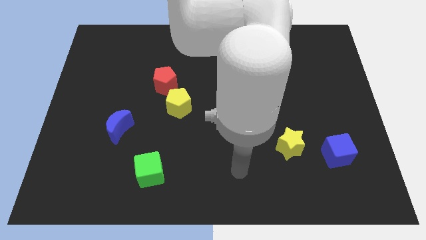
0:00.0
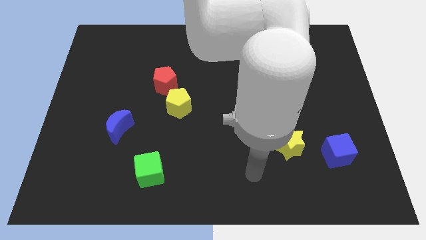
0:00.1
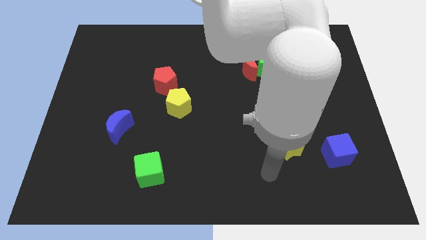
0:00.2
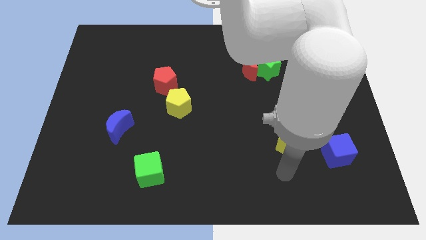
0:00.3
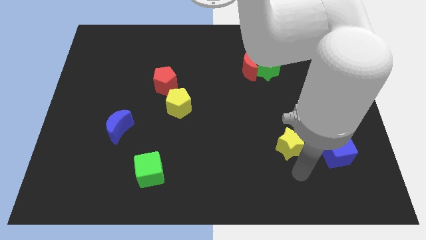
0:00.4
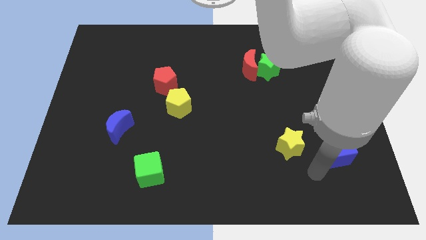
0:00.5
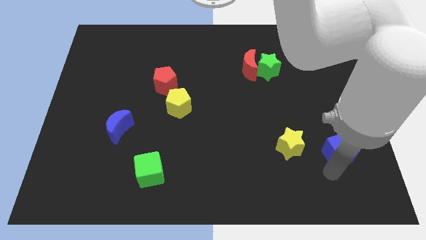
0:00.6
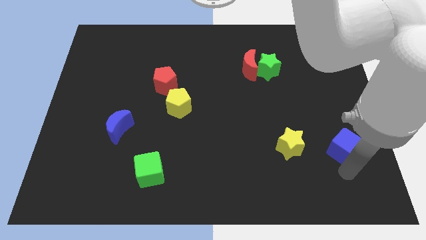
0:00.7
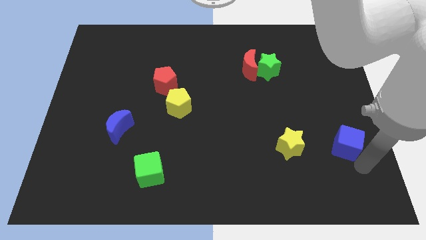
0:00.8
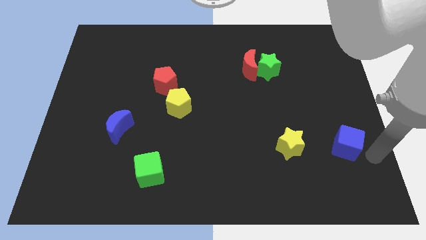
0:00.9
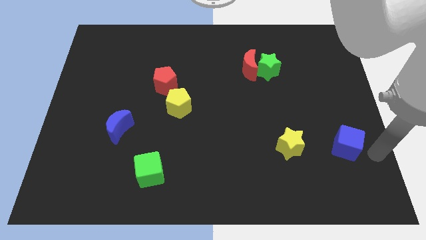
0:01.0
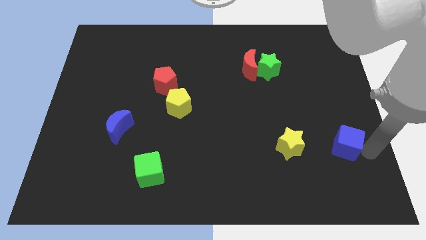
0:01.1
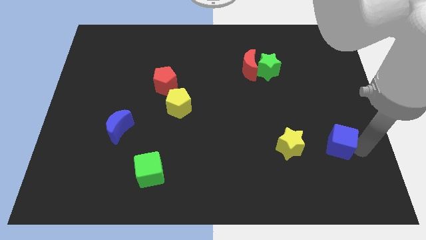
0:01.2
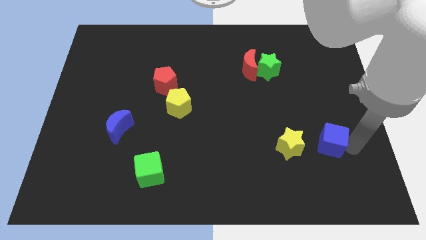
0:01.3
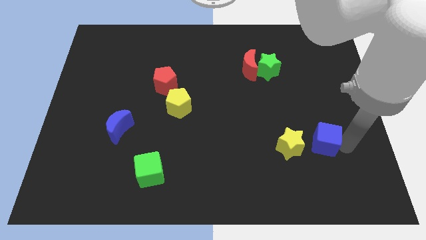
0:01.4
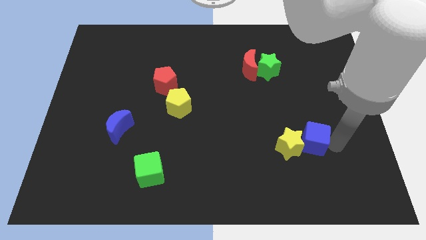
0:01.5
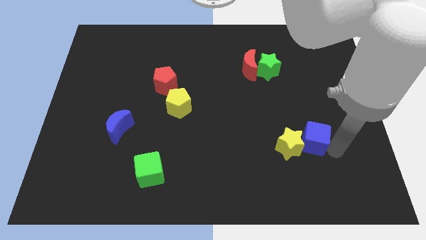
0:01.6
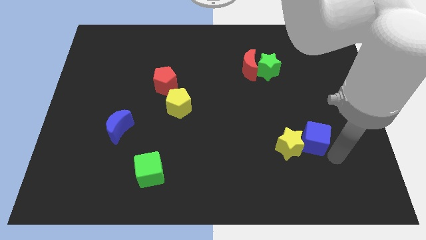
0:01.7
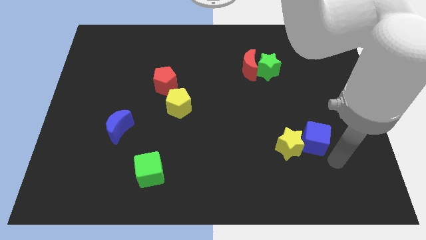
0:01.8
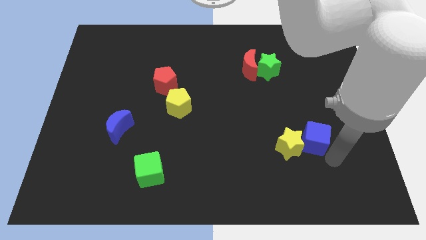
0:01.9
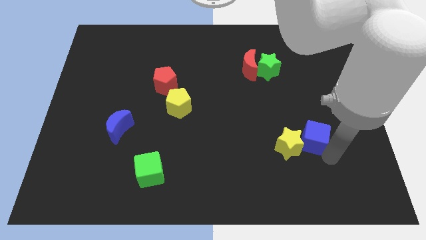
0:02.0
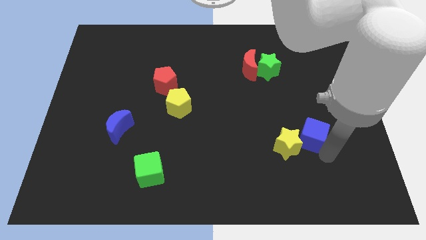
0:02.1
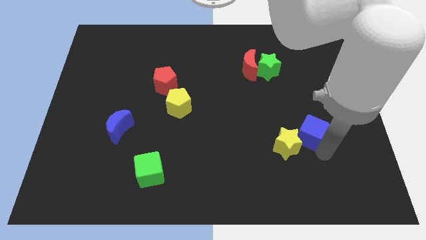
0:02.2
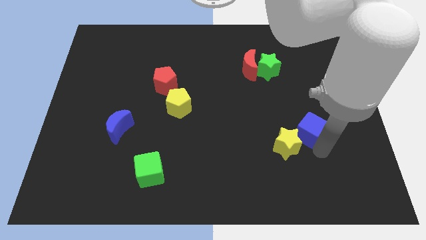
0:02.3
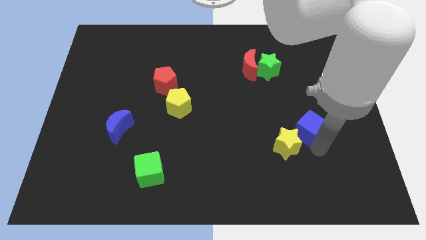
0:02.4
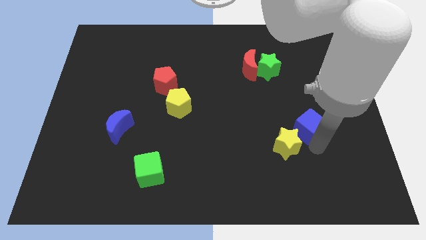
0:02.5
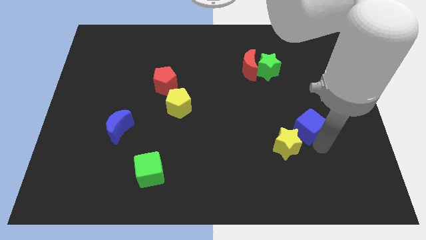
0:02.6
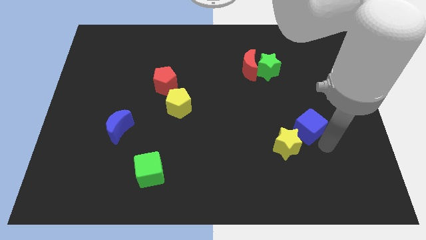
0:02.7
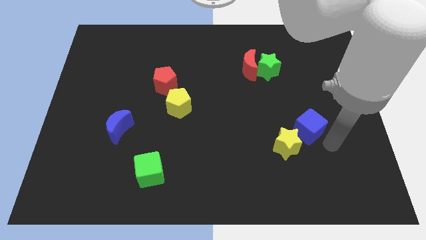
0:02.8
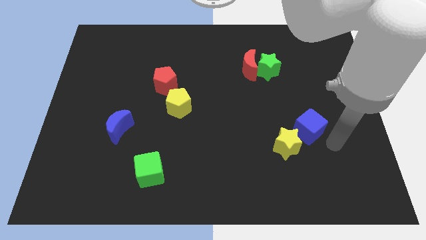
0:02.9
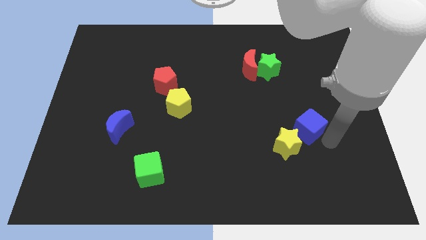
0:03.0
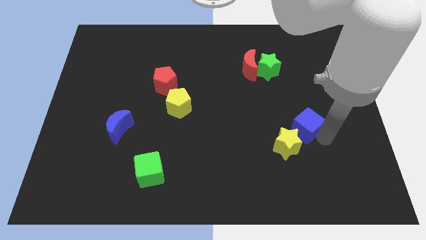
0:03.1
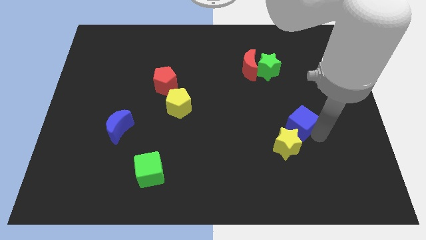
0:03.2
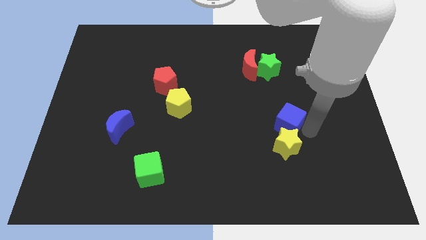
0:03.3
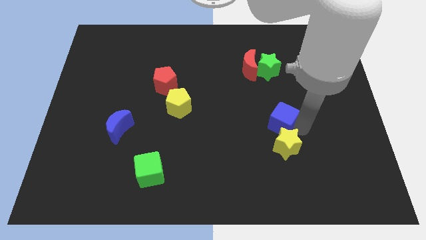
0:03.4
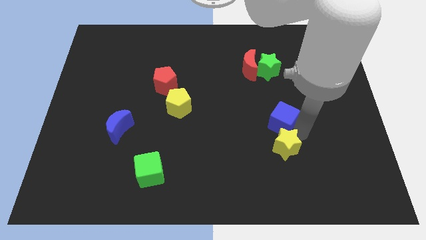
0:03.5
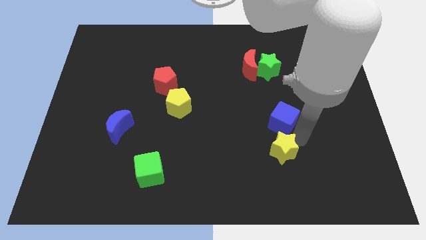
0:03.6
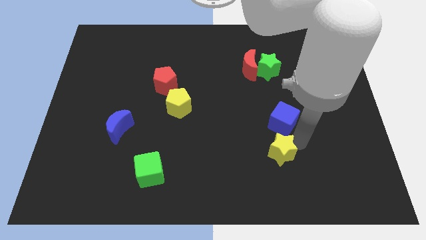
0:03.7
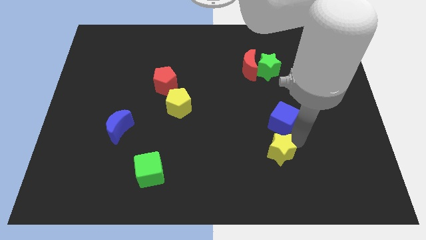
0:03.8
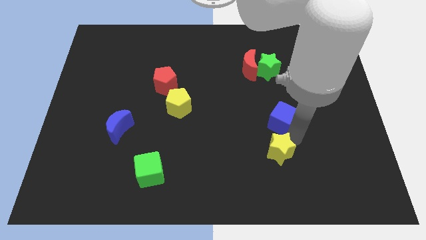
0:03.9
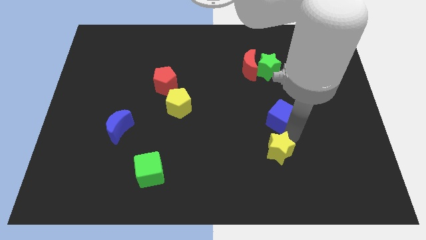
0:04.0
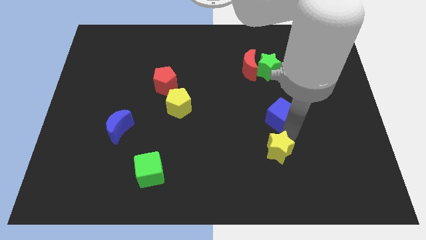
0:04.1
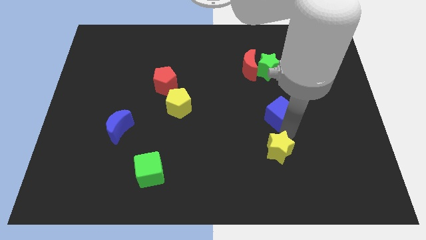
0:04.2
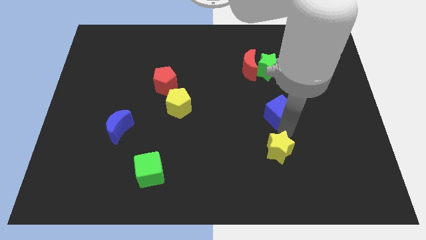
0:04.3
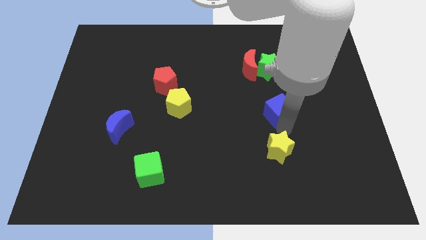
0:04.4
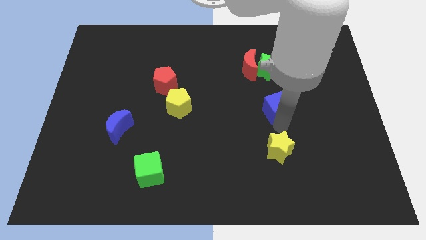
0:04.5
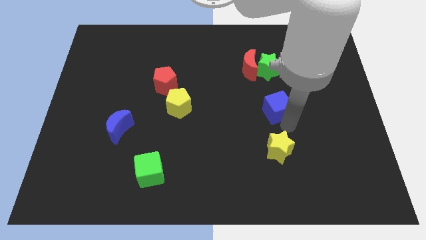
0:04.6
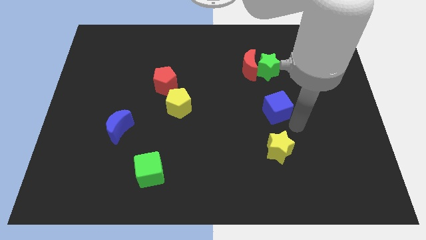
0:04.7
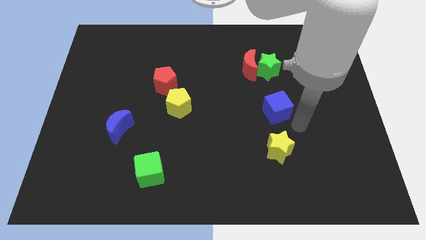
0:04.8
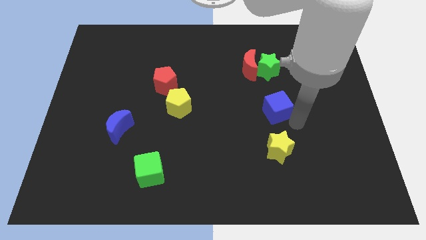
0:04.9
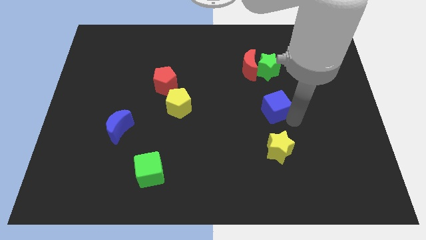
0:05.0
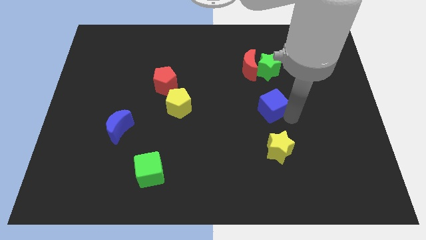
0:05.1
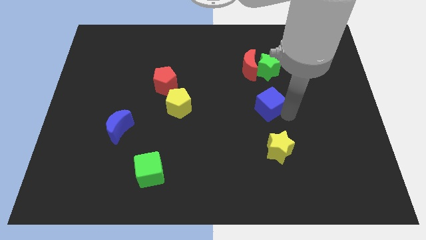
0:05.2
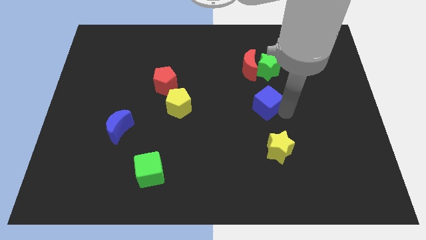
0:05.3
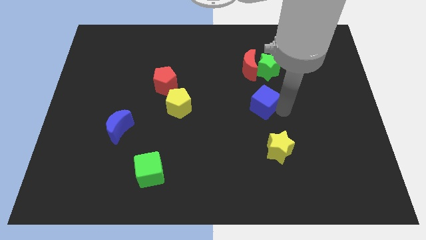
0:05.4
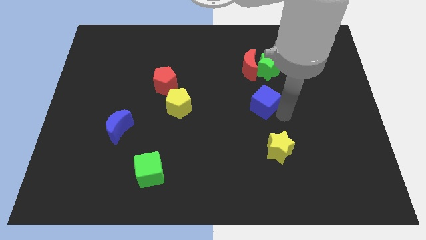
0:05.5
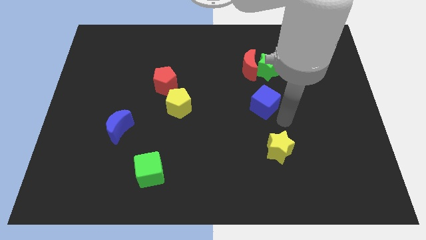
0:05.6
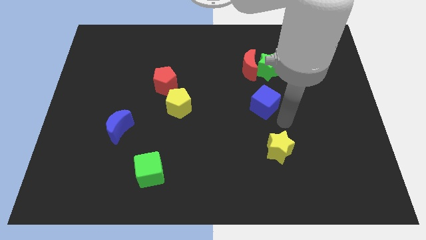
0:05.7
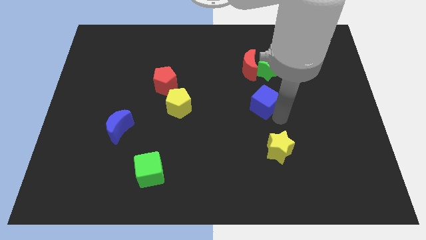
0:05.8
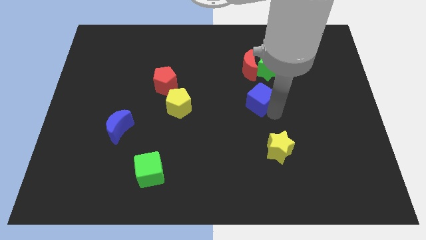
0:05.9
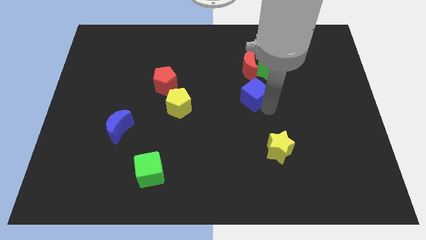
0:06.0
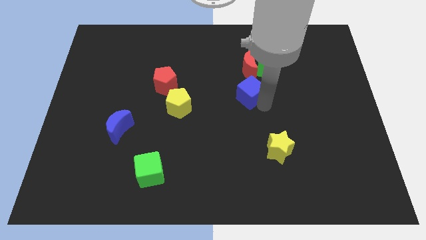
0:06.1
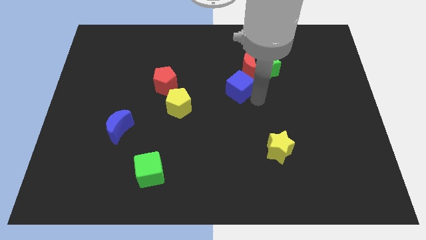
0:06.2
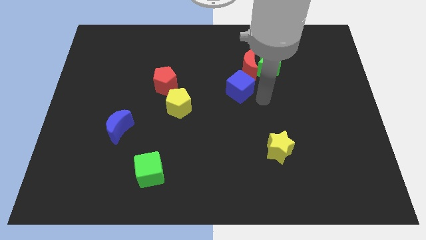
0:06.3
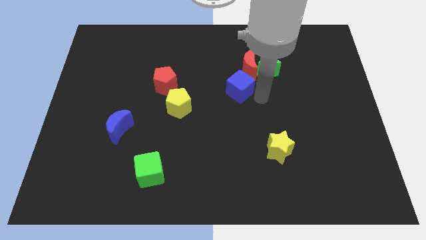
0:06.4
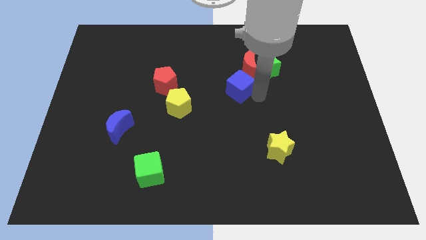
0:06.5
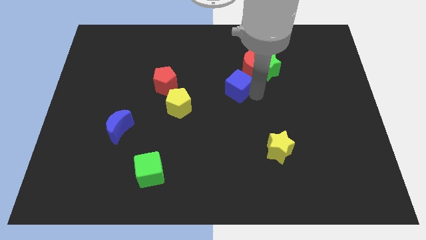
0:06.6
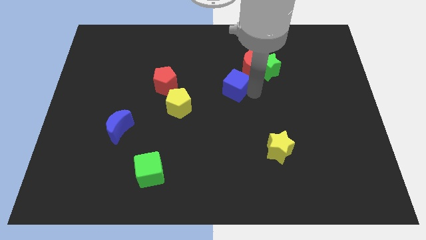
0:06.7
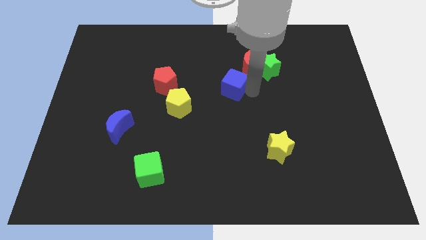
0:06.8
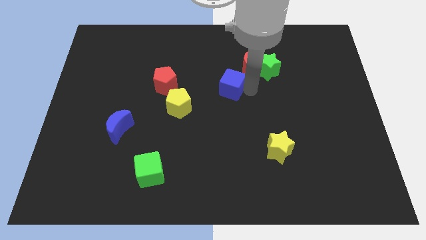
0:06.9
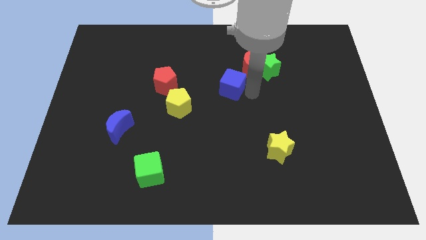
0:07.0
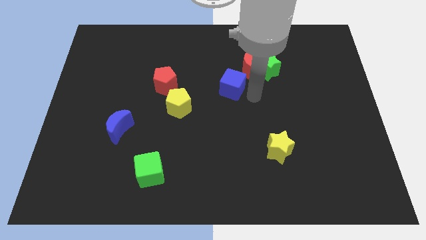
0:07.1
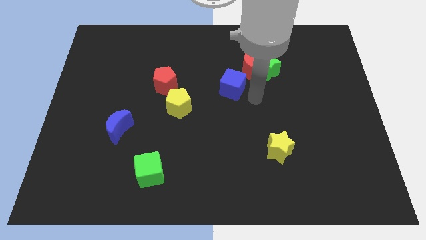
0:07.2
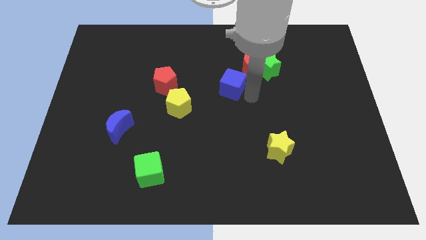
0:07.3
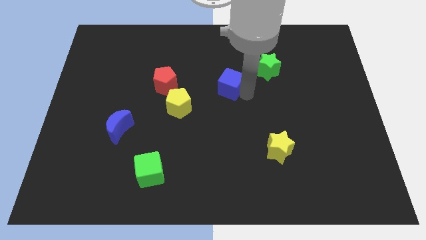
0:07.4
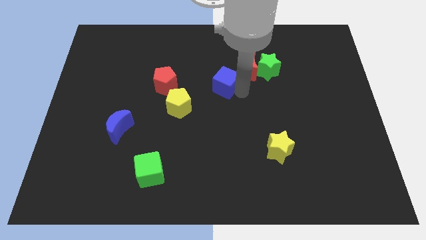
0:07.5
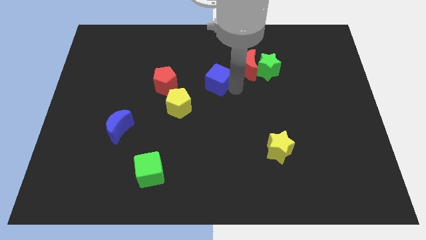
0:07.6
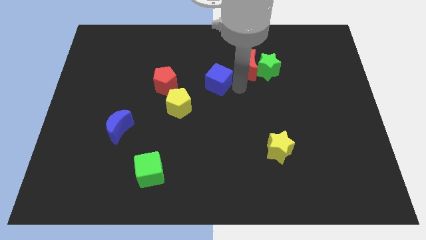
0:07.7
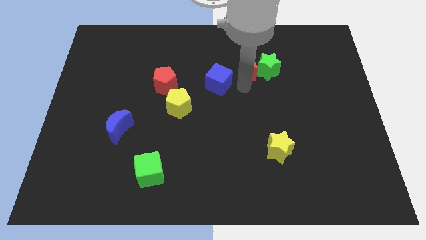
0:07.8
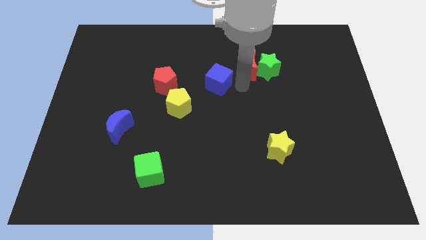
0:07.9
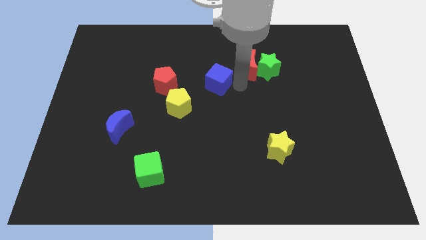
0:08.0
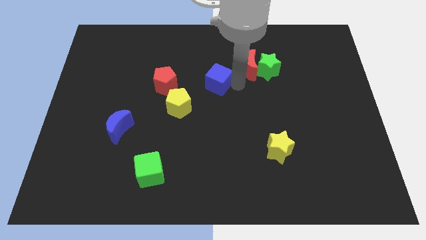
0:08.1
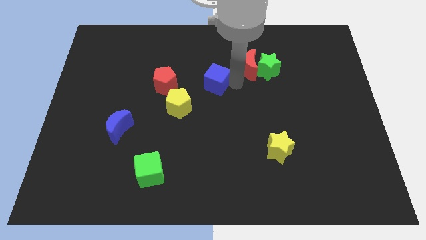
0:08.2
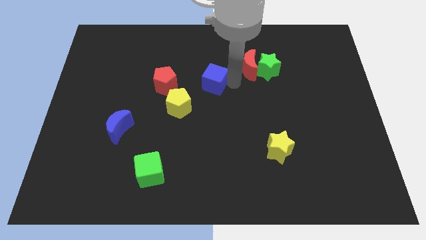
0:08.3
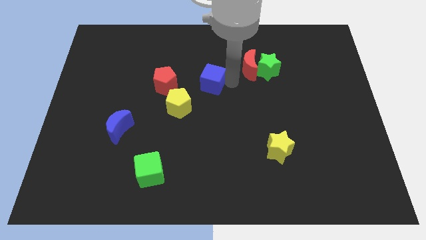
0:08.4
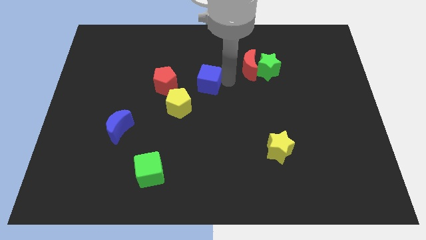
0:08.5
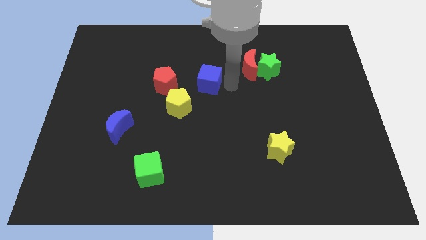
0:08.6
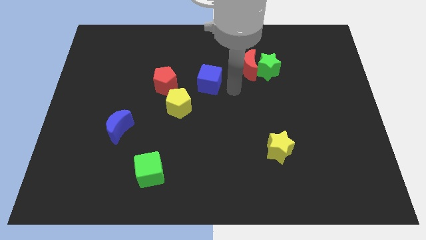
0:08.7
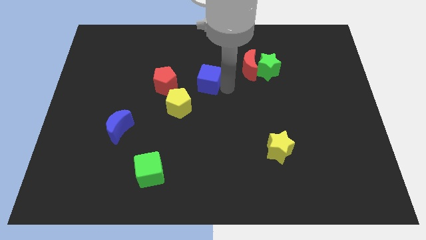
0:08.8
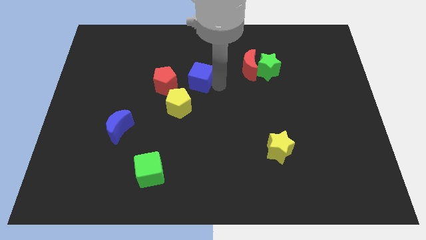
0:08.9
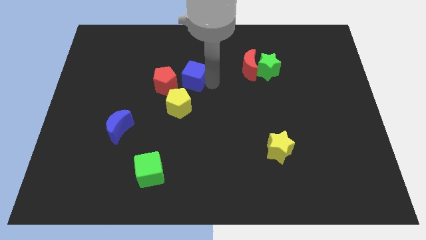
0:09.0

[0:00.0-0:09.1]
put the blue cube to the top side of the yellow pentagon
